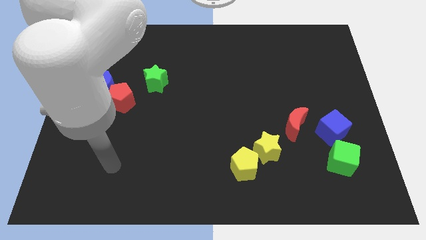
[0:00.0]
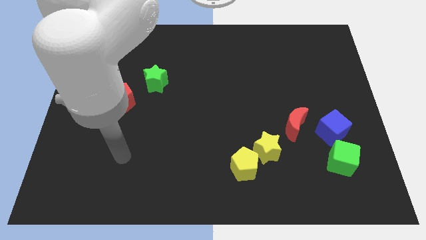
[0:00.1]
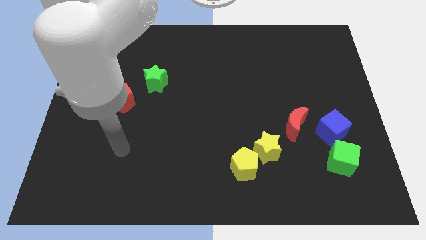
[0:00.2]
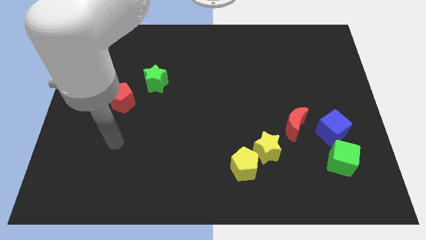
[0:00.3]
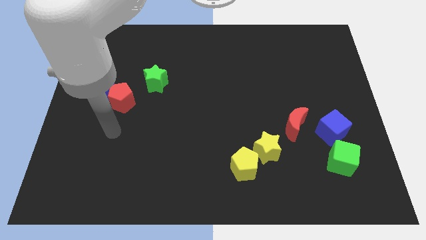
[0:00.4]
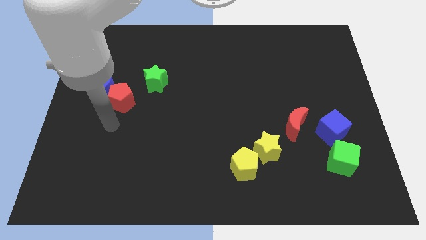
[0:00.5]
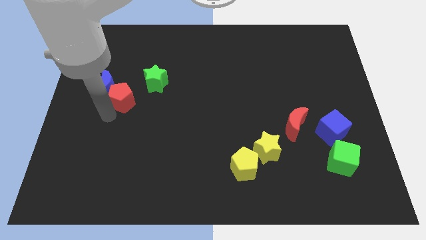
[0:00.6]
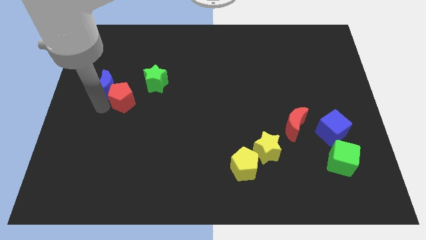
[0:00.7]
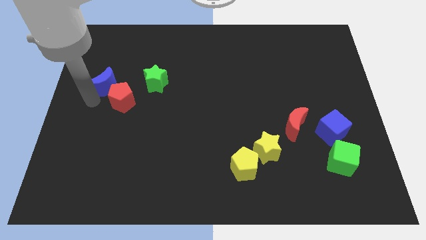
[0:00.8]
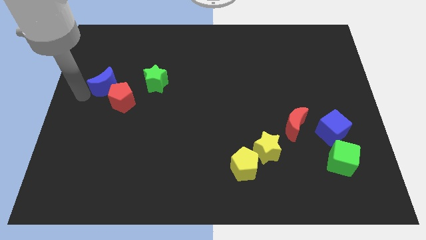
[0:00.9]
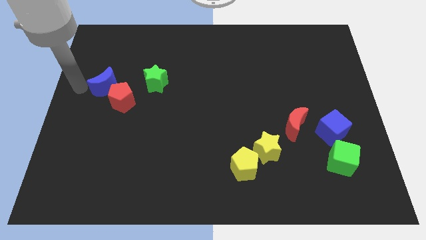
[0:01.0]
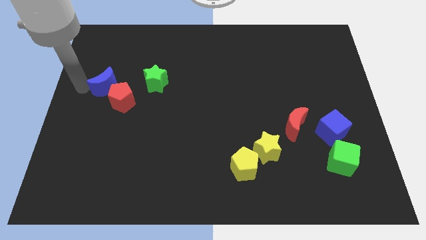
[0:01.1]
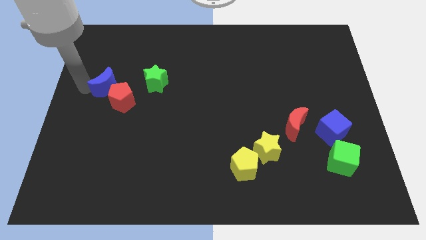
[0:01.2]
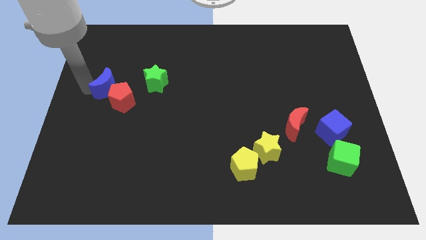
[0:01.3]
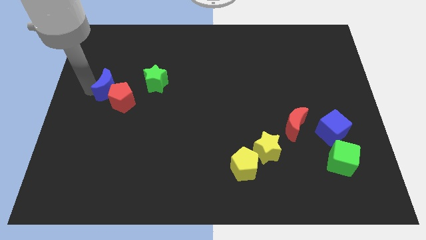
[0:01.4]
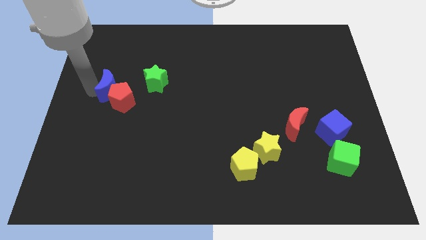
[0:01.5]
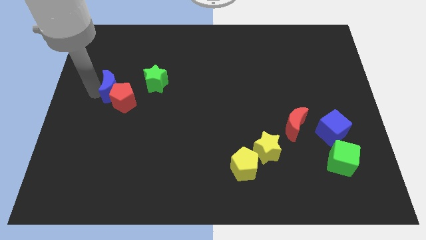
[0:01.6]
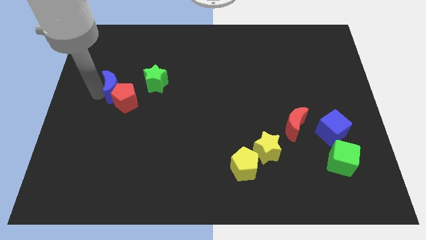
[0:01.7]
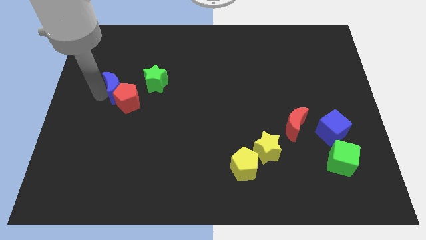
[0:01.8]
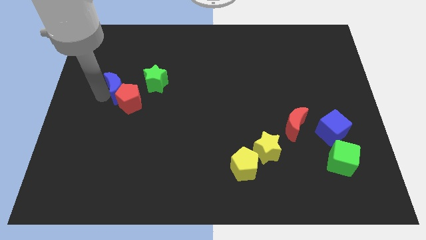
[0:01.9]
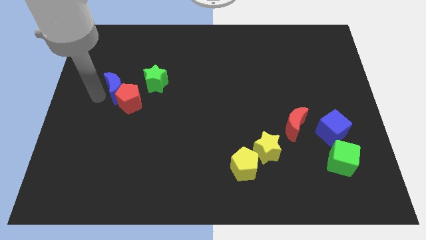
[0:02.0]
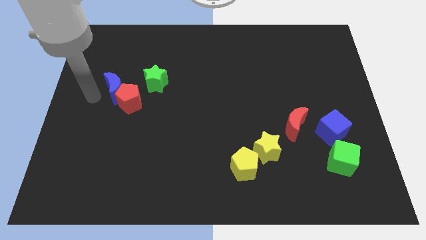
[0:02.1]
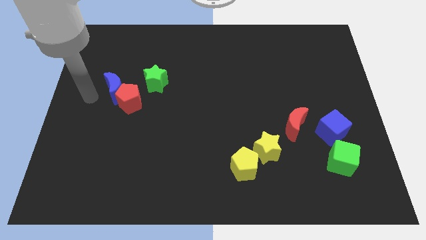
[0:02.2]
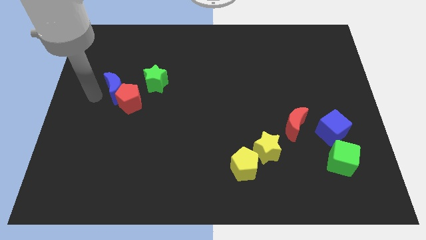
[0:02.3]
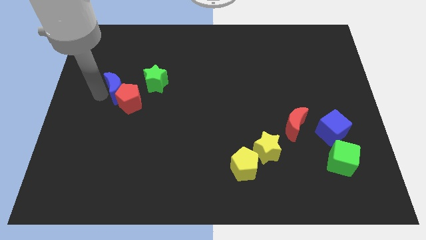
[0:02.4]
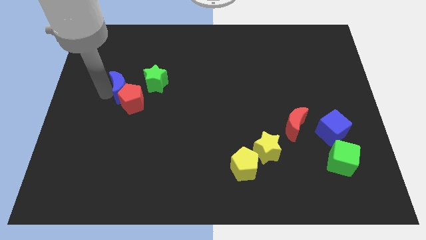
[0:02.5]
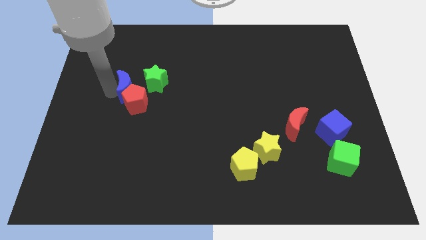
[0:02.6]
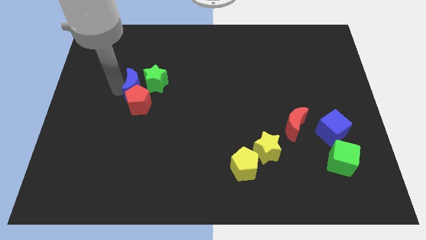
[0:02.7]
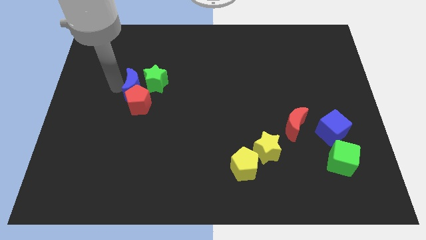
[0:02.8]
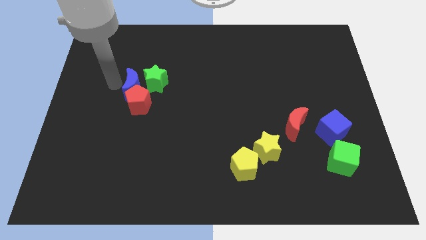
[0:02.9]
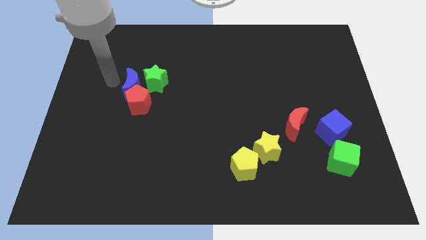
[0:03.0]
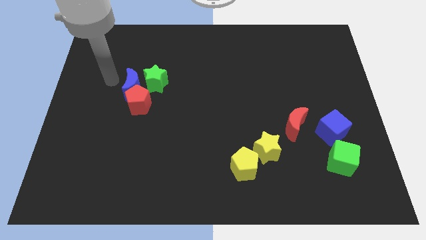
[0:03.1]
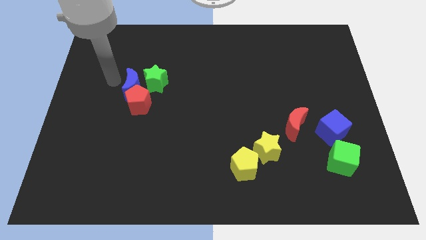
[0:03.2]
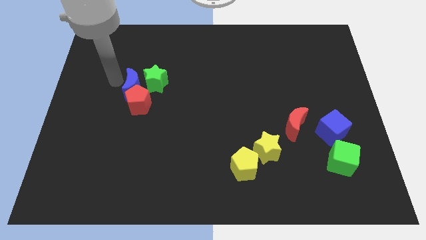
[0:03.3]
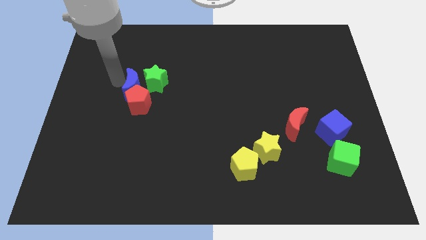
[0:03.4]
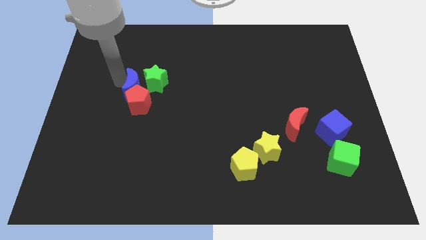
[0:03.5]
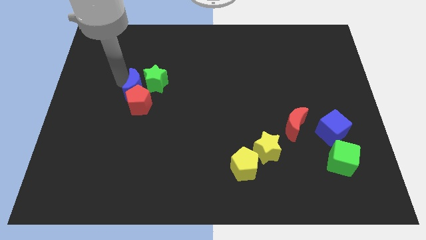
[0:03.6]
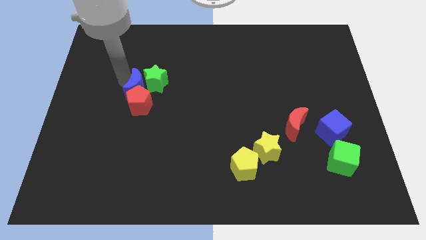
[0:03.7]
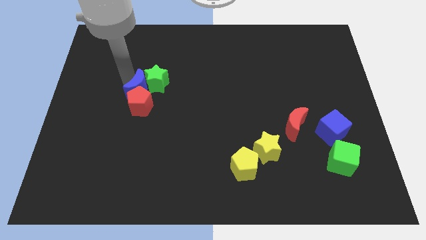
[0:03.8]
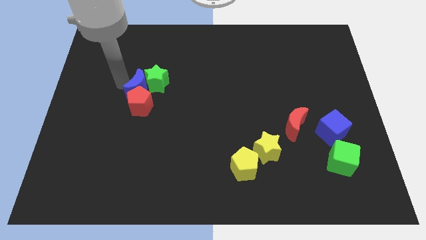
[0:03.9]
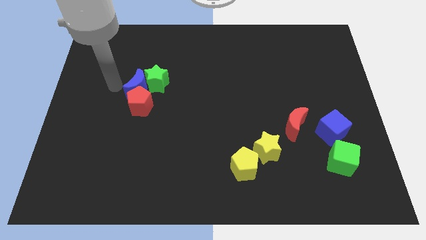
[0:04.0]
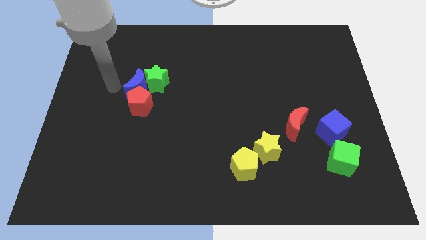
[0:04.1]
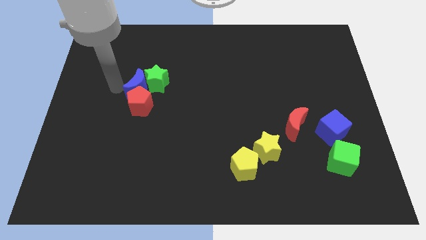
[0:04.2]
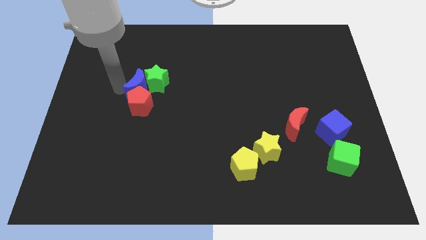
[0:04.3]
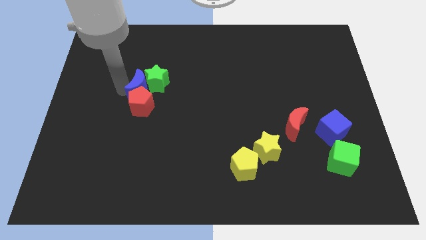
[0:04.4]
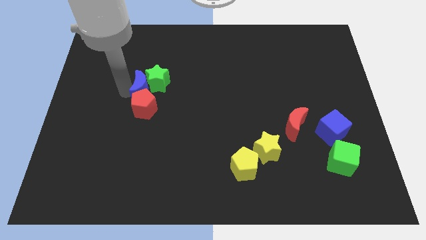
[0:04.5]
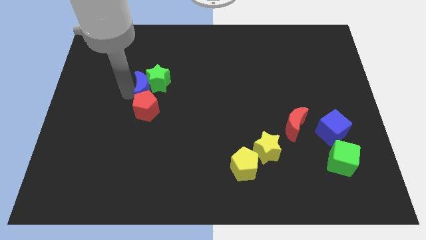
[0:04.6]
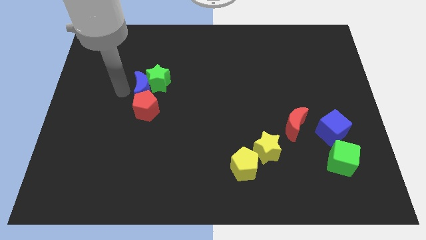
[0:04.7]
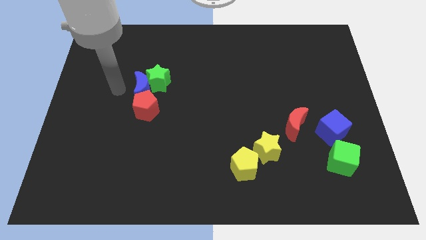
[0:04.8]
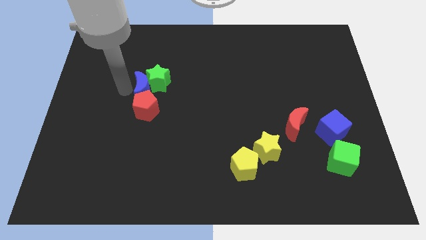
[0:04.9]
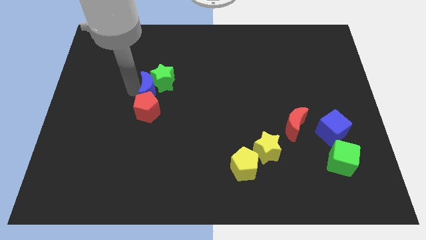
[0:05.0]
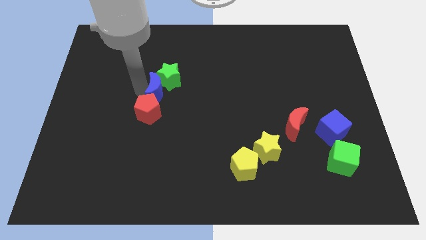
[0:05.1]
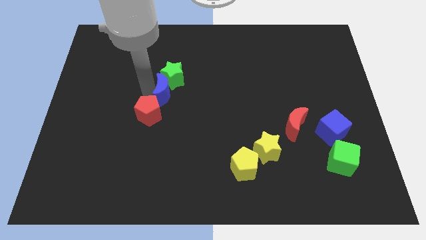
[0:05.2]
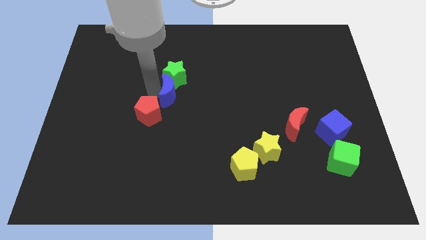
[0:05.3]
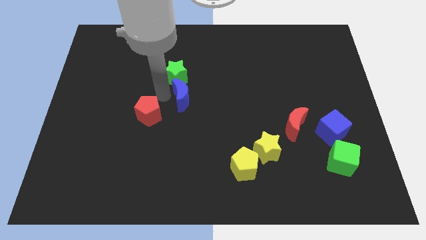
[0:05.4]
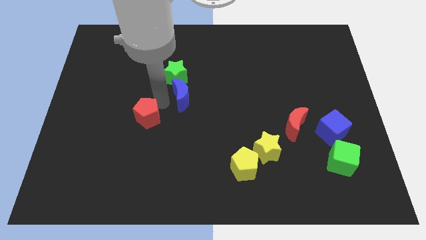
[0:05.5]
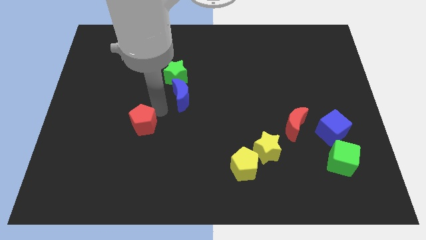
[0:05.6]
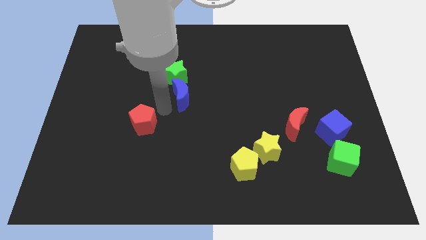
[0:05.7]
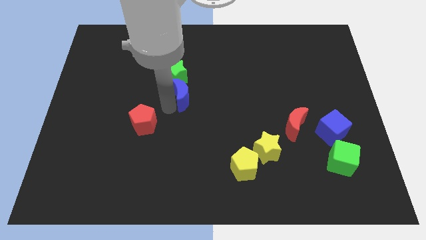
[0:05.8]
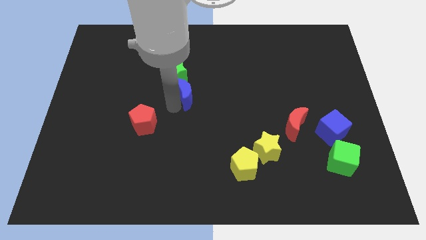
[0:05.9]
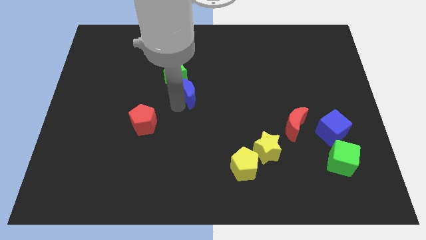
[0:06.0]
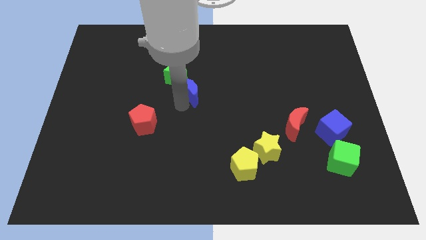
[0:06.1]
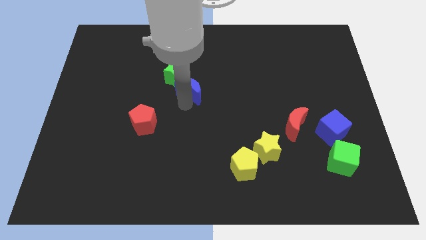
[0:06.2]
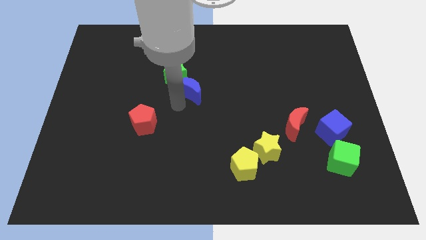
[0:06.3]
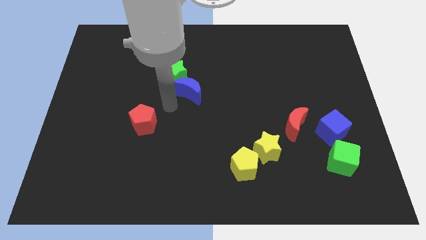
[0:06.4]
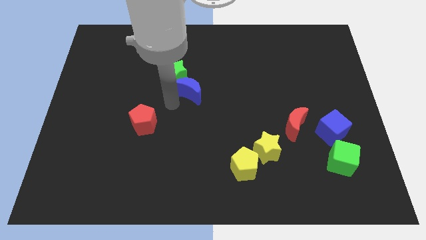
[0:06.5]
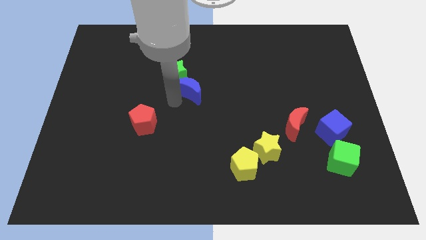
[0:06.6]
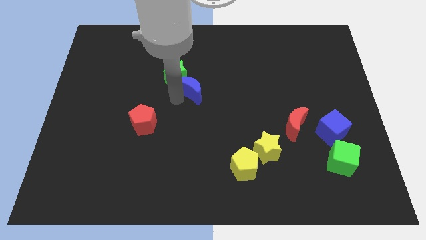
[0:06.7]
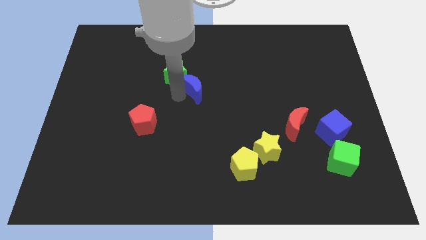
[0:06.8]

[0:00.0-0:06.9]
move the blue moon just right of the green star

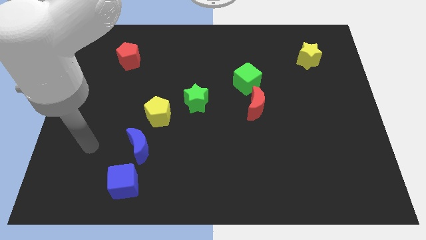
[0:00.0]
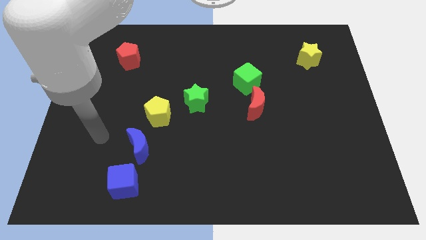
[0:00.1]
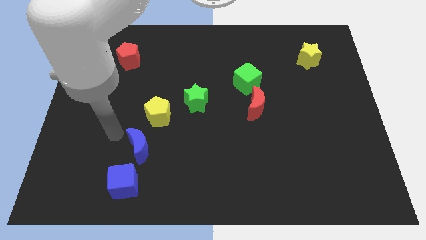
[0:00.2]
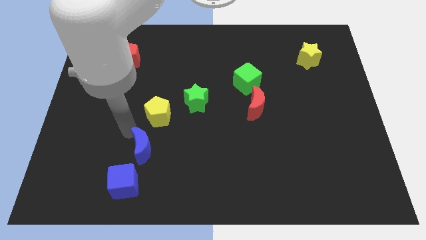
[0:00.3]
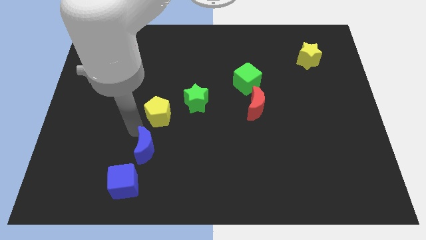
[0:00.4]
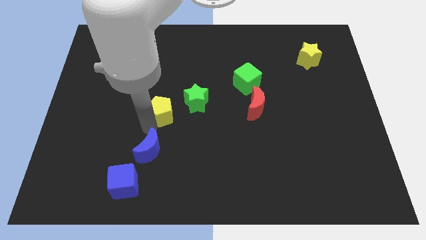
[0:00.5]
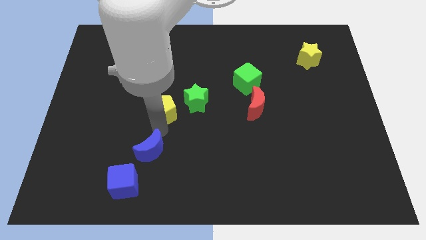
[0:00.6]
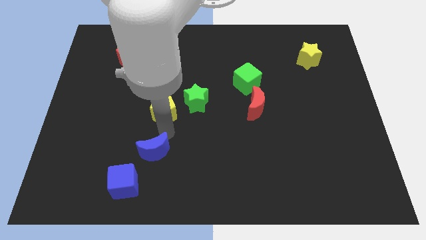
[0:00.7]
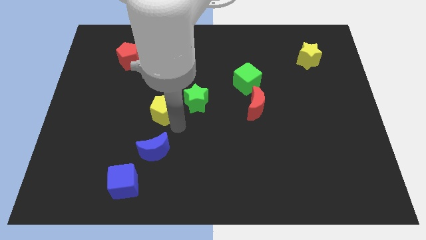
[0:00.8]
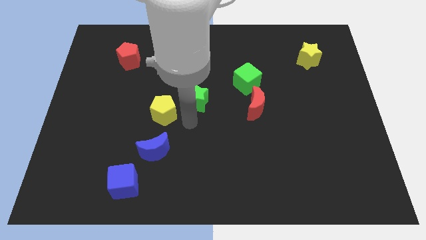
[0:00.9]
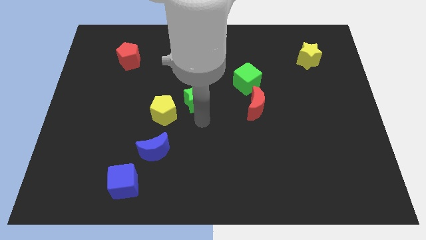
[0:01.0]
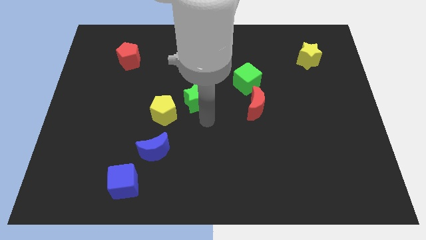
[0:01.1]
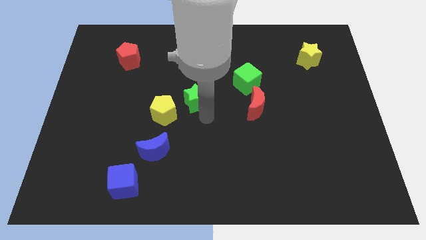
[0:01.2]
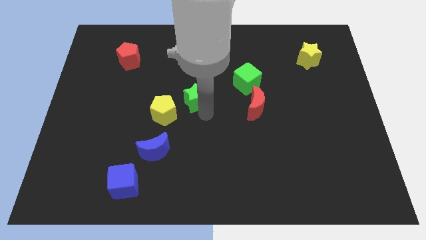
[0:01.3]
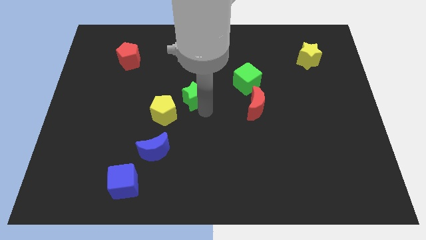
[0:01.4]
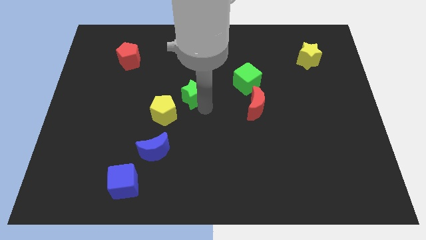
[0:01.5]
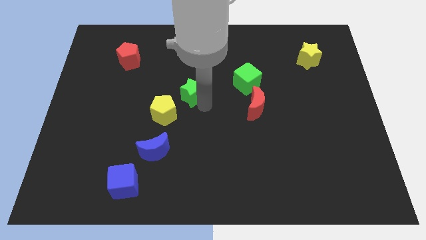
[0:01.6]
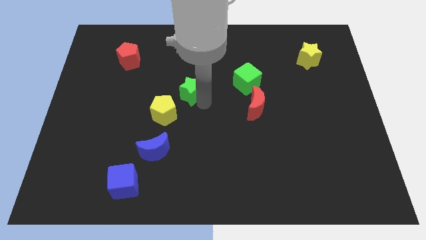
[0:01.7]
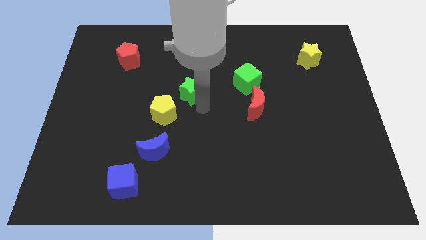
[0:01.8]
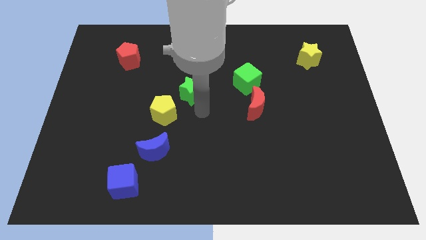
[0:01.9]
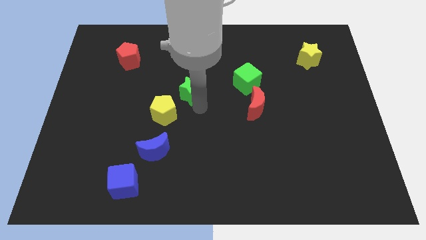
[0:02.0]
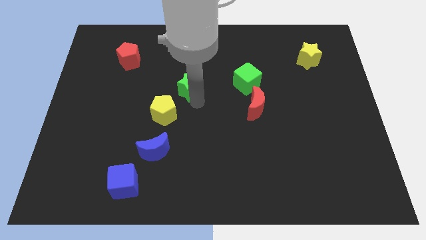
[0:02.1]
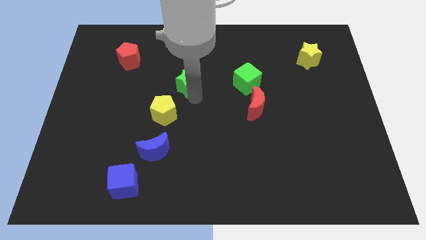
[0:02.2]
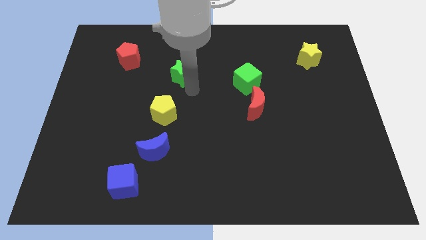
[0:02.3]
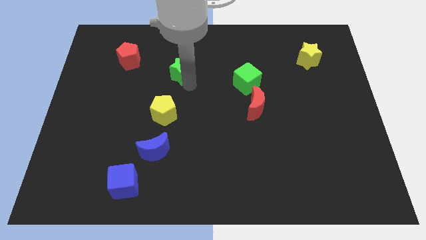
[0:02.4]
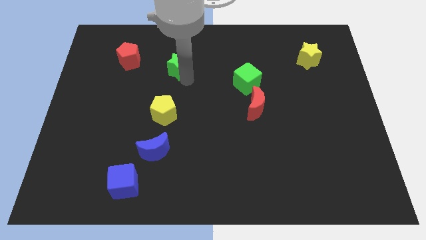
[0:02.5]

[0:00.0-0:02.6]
push the green star to the right of the red pentagon
